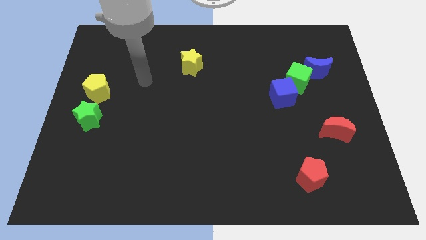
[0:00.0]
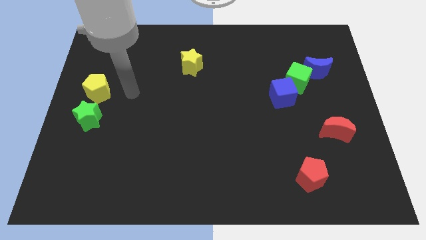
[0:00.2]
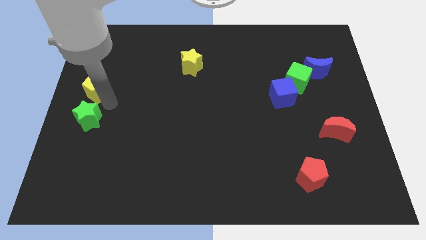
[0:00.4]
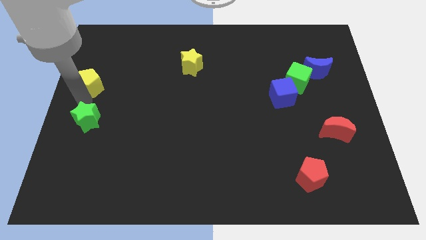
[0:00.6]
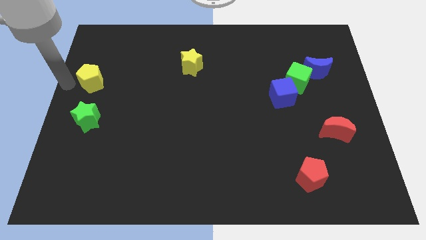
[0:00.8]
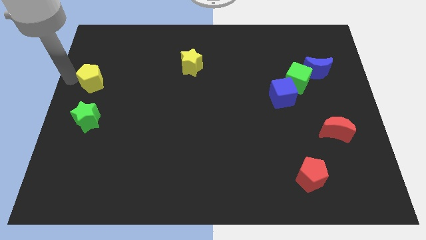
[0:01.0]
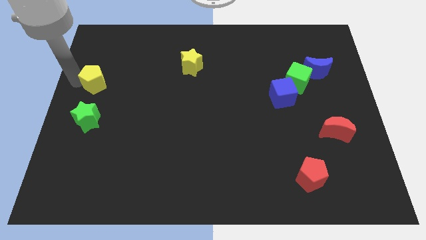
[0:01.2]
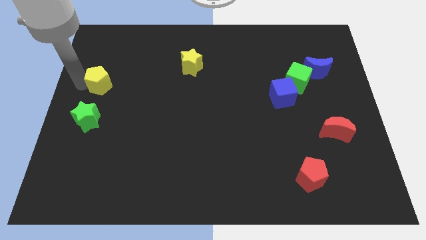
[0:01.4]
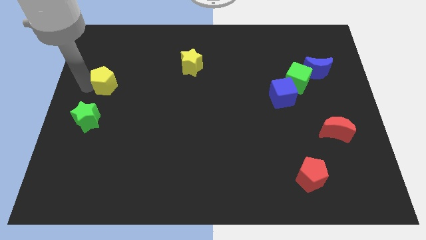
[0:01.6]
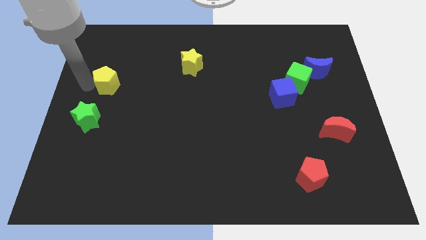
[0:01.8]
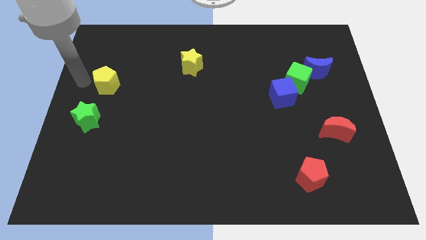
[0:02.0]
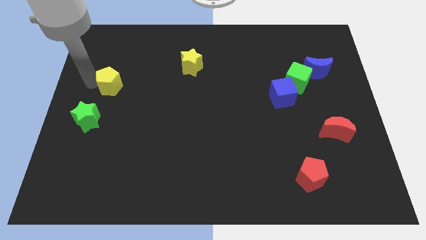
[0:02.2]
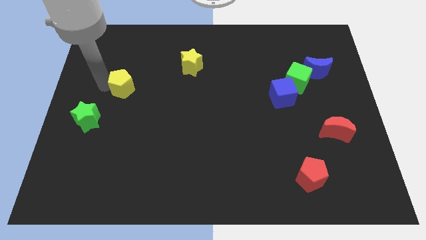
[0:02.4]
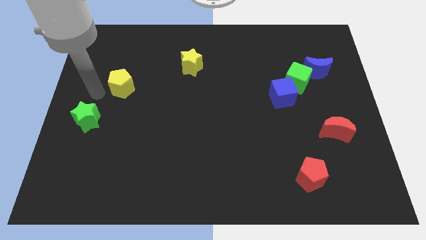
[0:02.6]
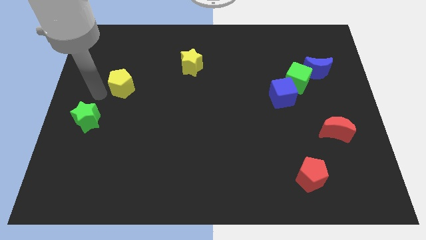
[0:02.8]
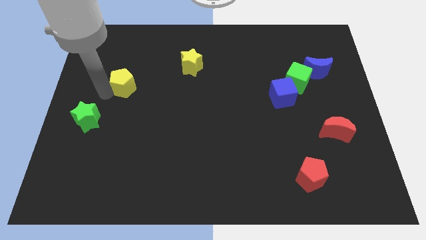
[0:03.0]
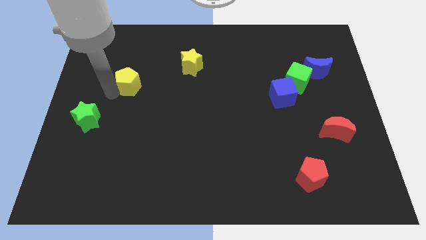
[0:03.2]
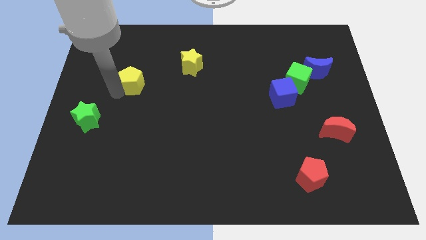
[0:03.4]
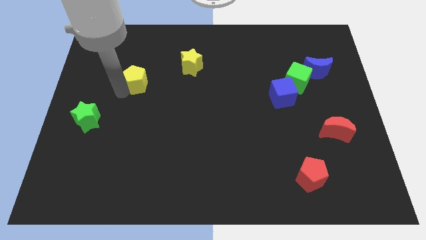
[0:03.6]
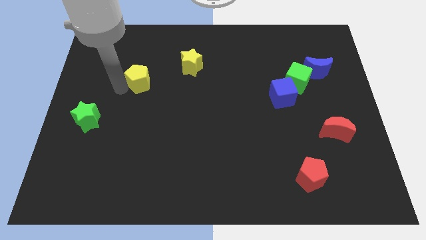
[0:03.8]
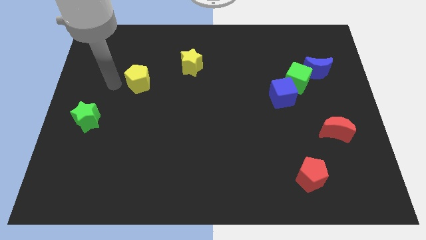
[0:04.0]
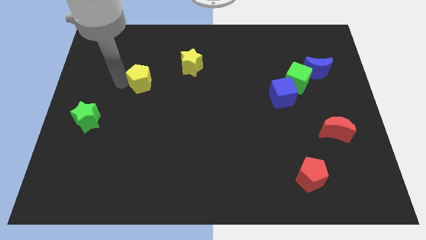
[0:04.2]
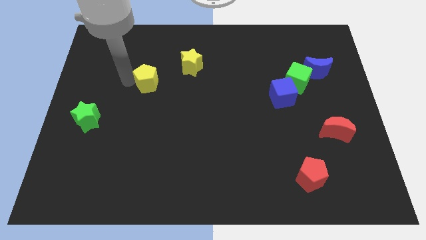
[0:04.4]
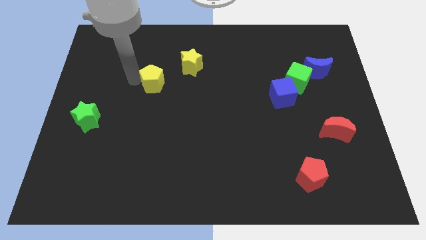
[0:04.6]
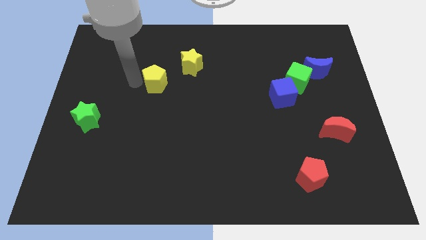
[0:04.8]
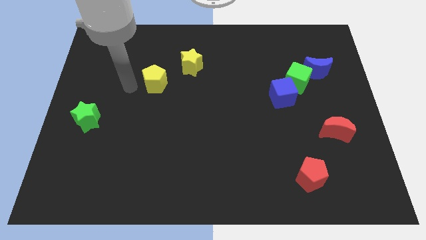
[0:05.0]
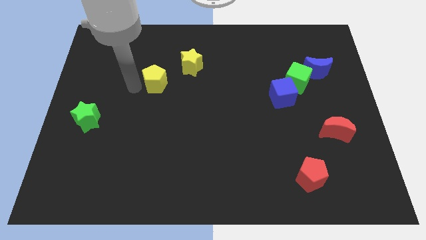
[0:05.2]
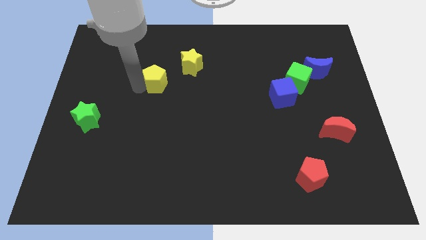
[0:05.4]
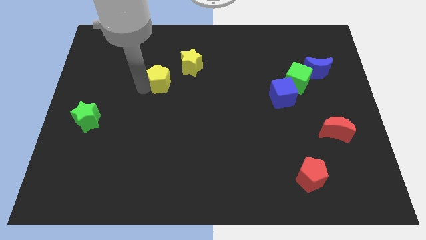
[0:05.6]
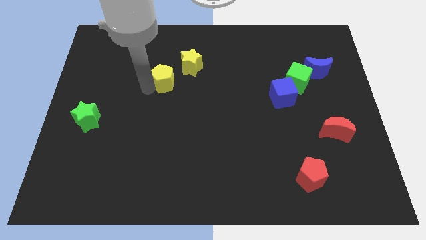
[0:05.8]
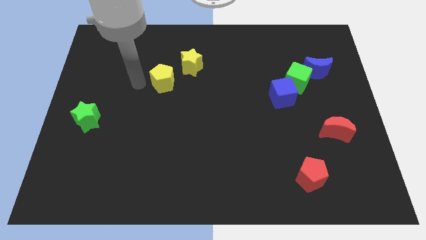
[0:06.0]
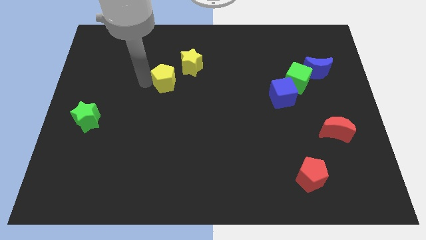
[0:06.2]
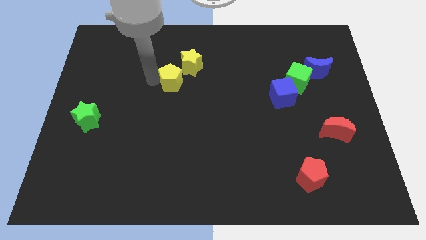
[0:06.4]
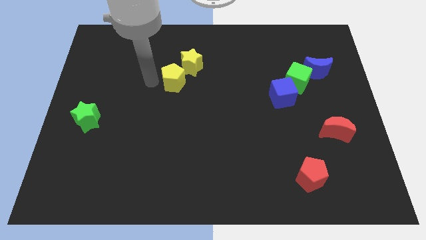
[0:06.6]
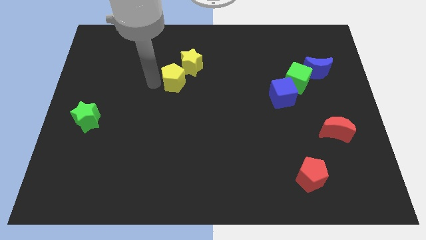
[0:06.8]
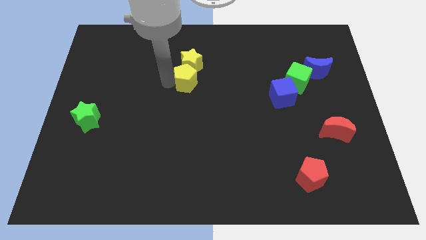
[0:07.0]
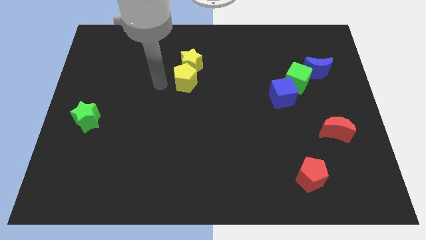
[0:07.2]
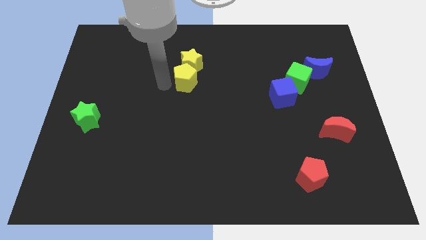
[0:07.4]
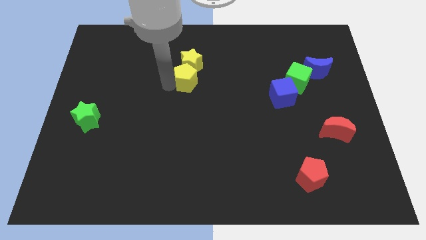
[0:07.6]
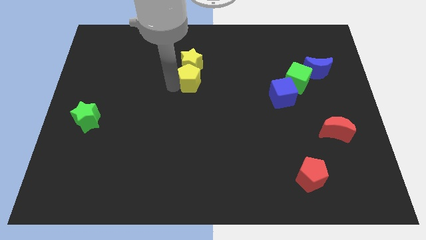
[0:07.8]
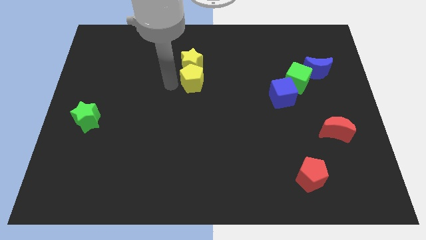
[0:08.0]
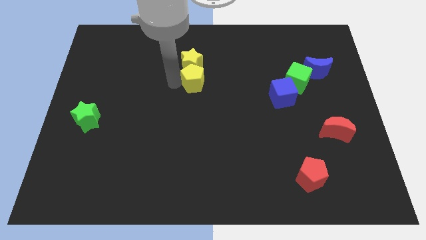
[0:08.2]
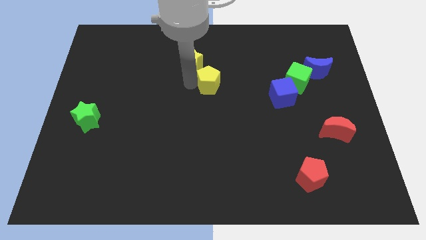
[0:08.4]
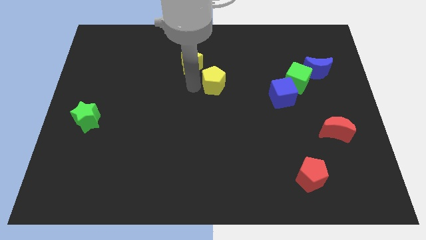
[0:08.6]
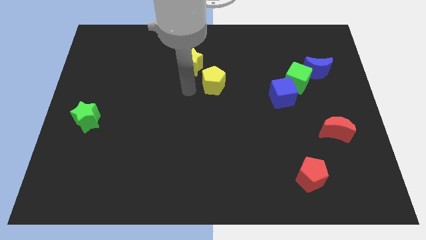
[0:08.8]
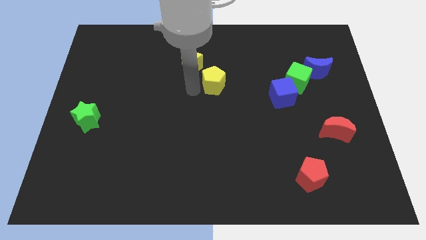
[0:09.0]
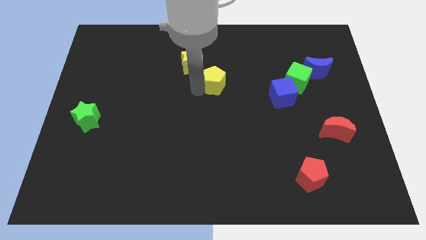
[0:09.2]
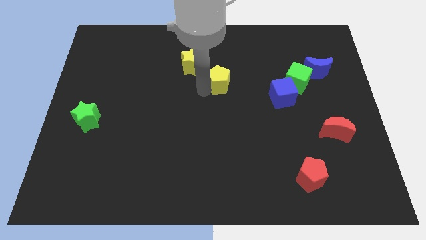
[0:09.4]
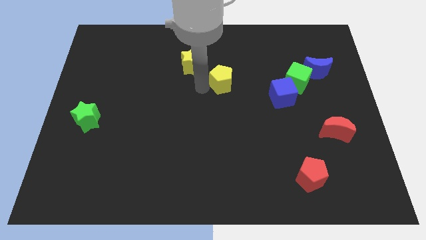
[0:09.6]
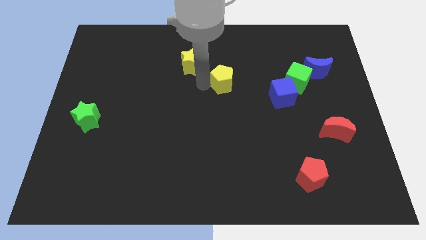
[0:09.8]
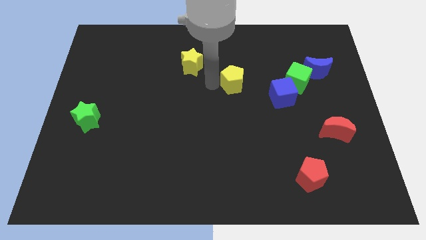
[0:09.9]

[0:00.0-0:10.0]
slide the yellow pentagon left of the green cube

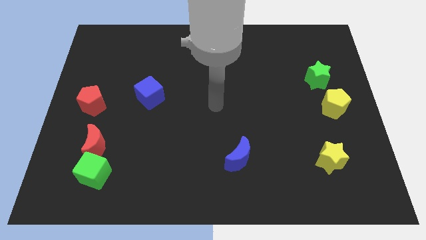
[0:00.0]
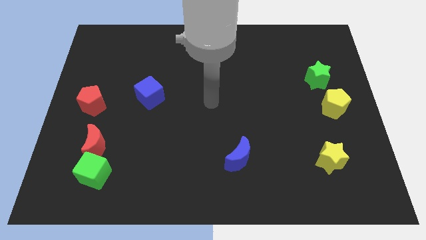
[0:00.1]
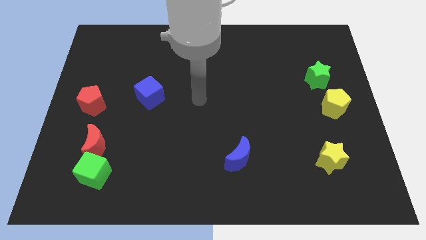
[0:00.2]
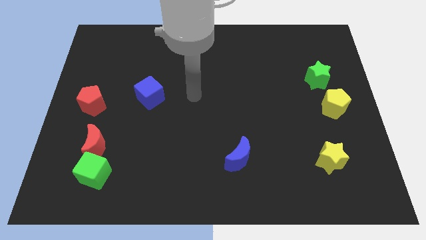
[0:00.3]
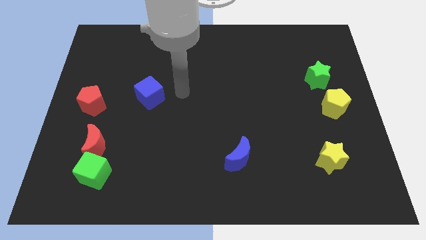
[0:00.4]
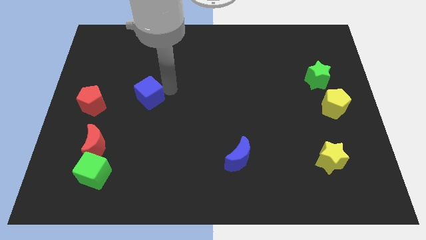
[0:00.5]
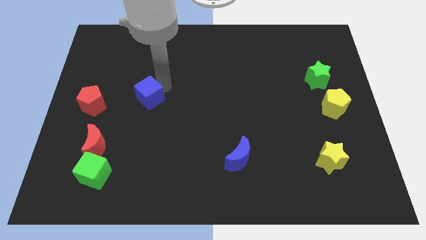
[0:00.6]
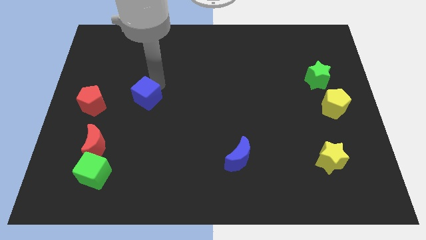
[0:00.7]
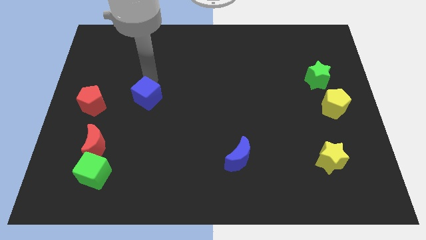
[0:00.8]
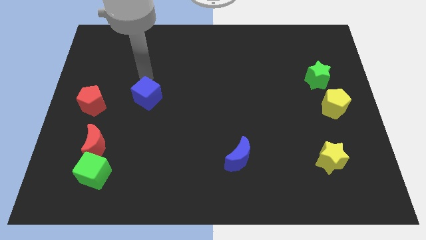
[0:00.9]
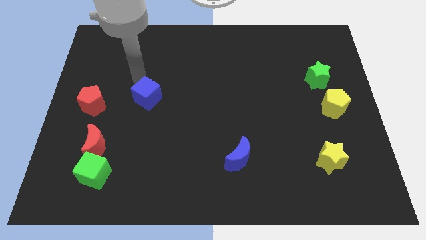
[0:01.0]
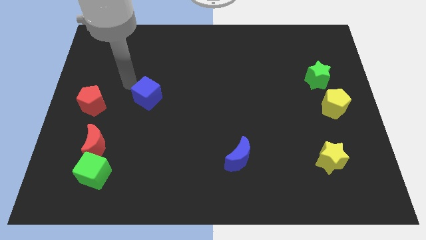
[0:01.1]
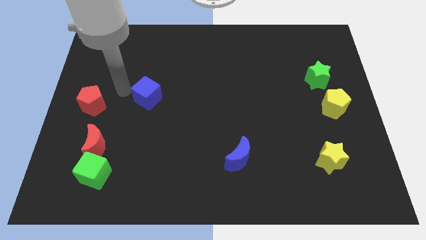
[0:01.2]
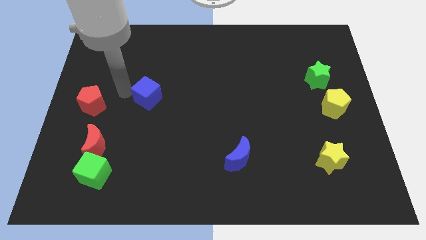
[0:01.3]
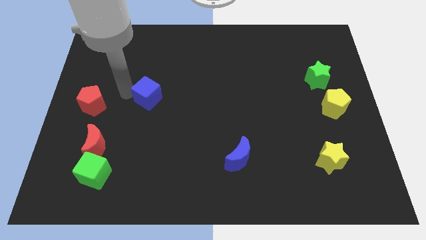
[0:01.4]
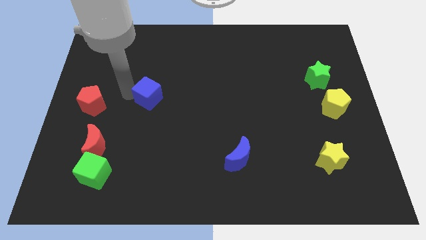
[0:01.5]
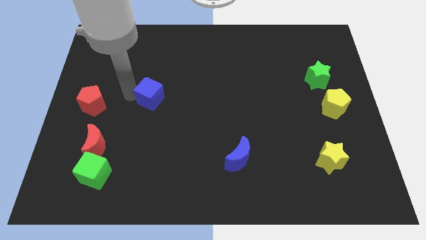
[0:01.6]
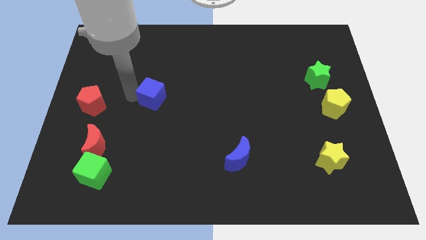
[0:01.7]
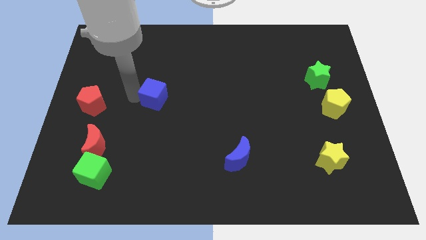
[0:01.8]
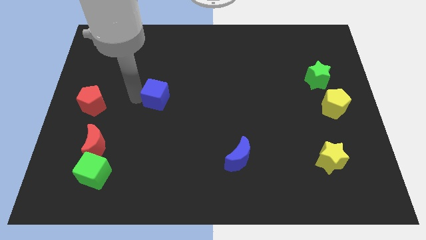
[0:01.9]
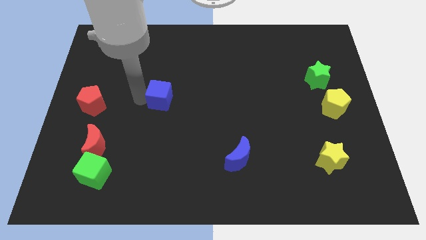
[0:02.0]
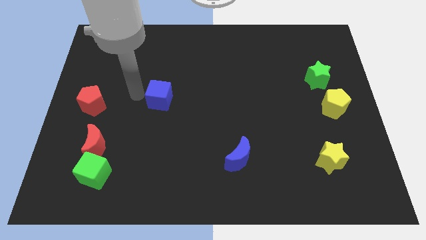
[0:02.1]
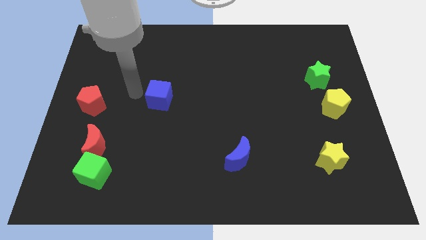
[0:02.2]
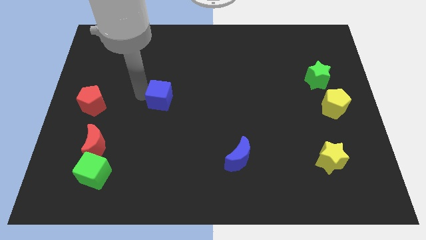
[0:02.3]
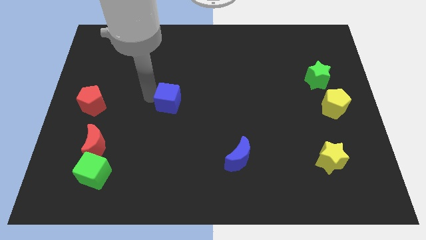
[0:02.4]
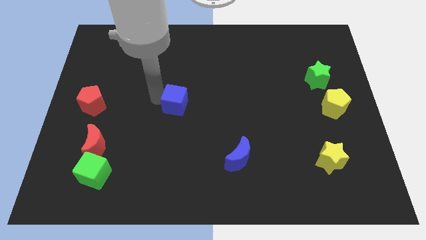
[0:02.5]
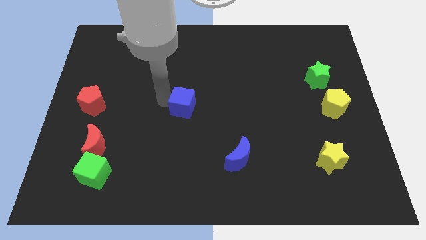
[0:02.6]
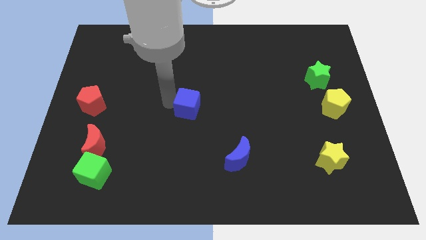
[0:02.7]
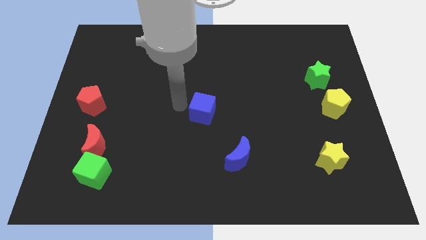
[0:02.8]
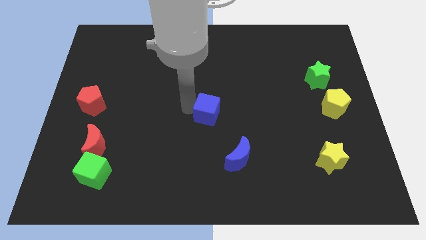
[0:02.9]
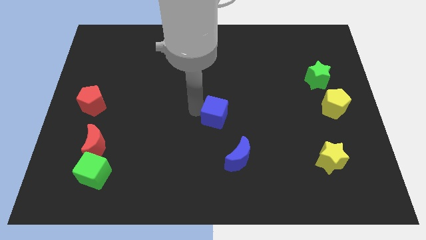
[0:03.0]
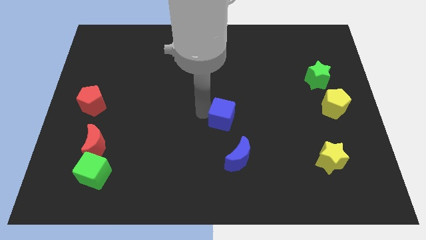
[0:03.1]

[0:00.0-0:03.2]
put the blue cube above the blue moon

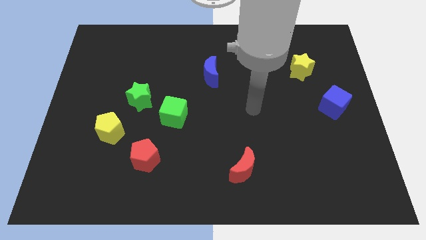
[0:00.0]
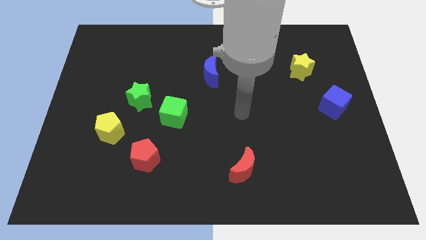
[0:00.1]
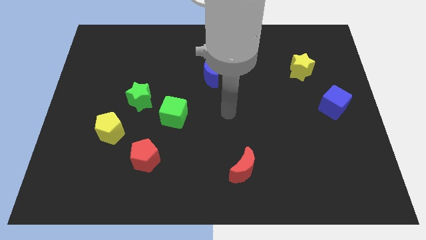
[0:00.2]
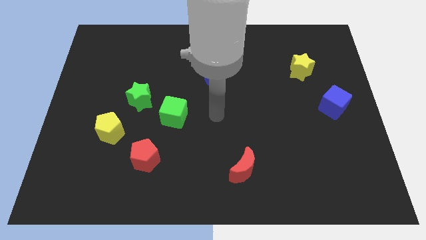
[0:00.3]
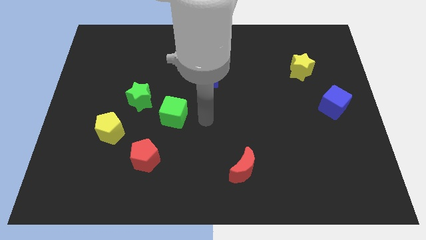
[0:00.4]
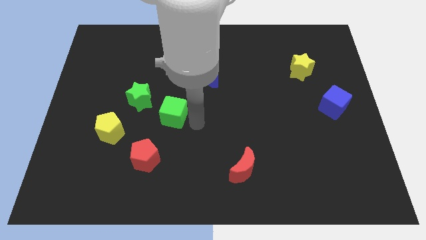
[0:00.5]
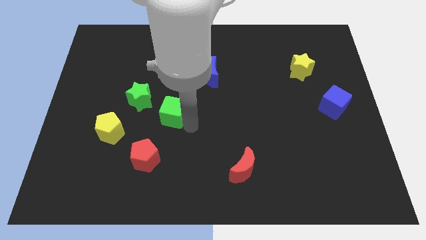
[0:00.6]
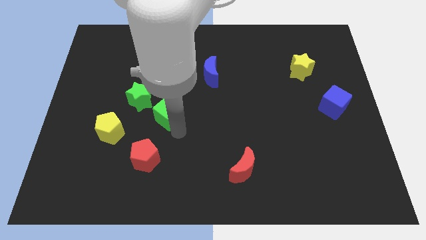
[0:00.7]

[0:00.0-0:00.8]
move the red pentagon to the bottom side of the green cube
